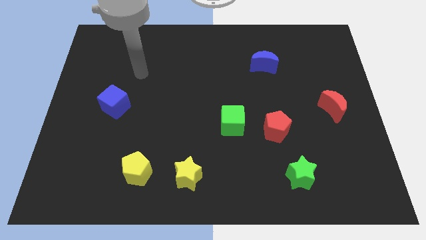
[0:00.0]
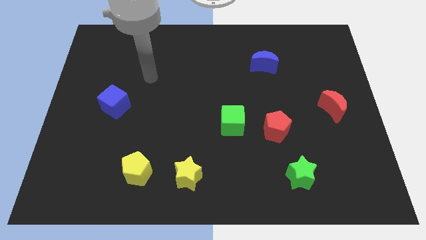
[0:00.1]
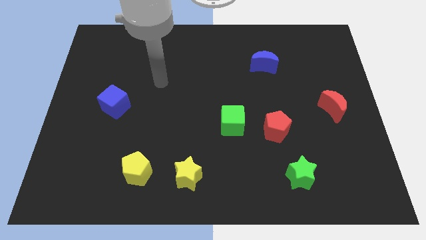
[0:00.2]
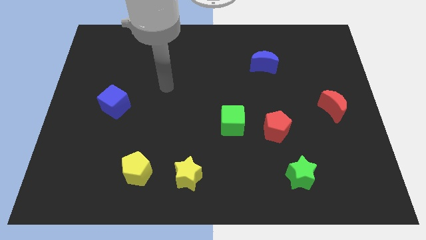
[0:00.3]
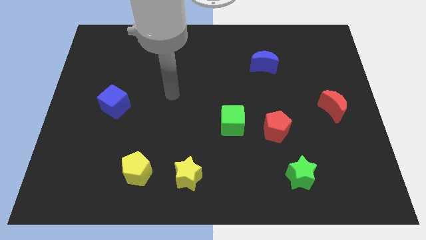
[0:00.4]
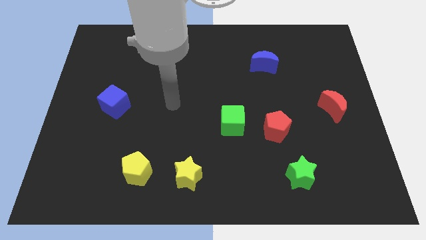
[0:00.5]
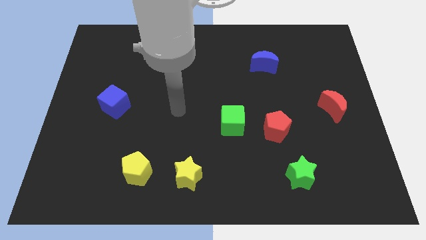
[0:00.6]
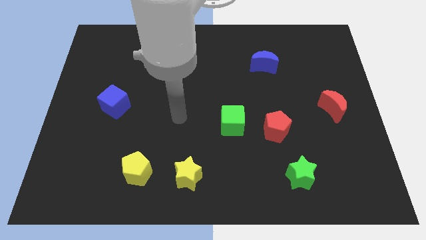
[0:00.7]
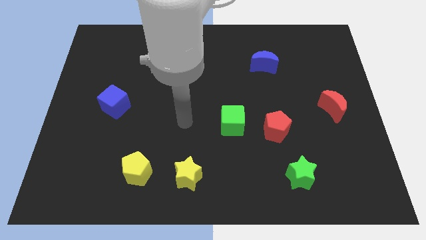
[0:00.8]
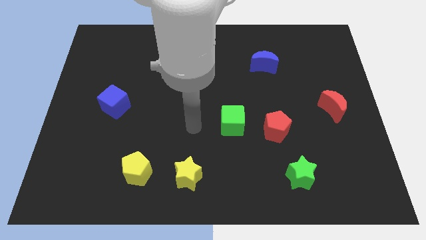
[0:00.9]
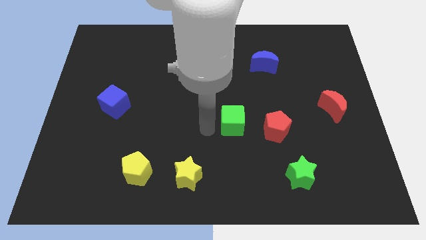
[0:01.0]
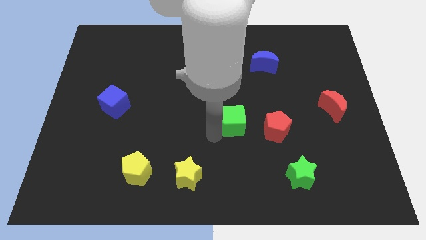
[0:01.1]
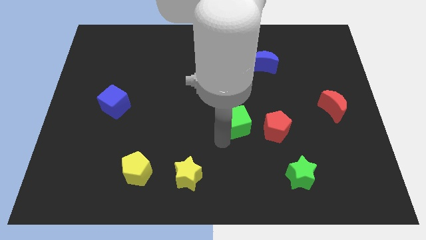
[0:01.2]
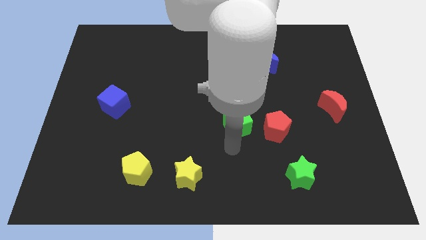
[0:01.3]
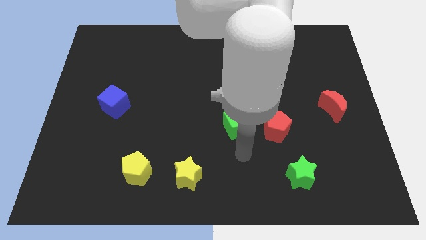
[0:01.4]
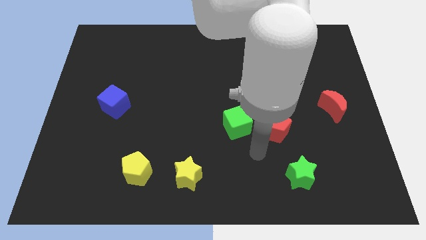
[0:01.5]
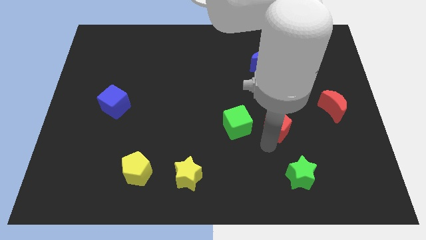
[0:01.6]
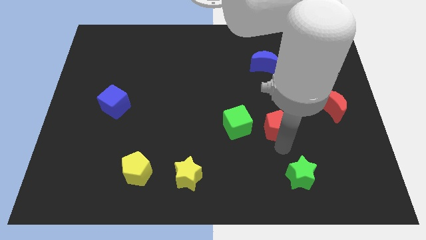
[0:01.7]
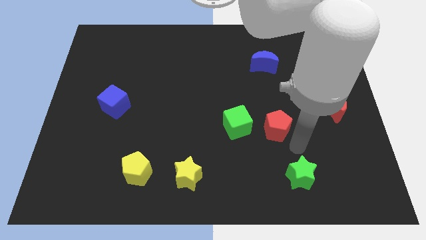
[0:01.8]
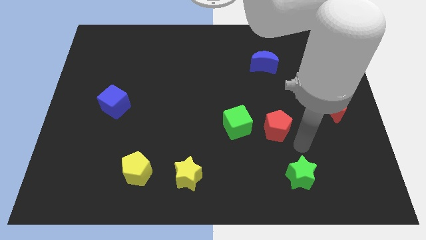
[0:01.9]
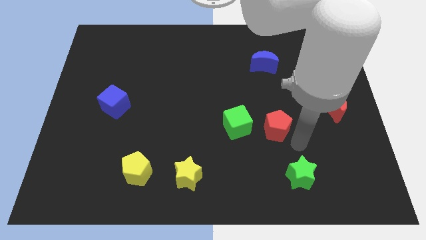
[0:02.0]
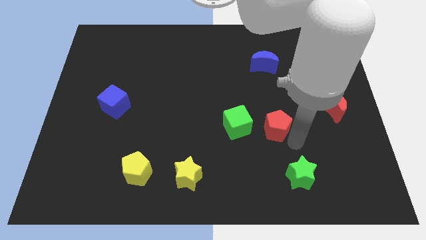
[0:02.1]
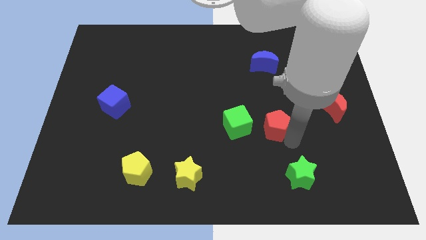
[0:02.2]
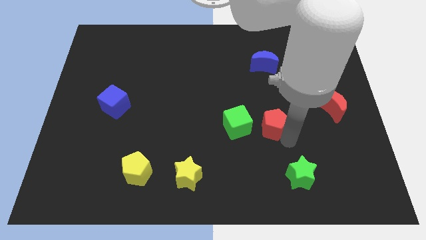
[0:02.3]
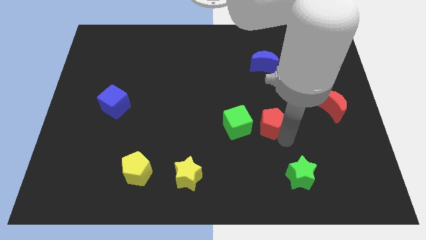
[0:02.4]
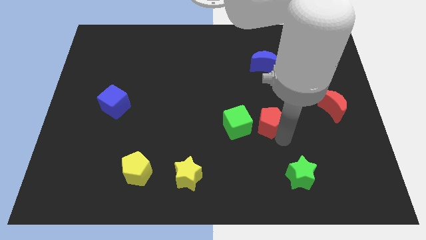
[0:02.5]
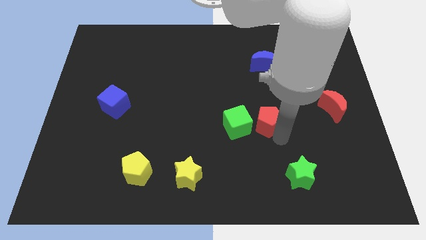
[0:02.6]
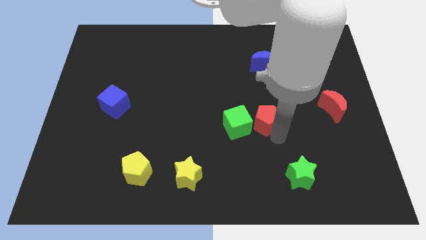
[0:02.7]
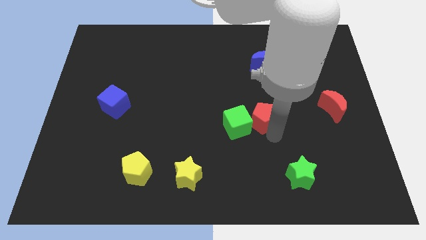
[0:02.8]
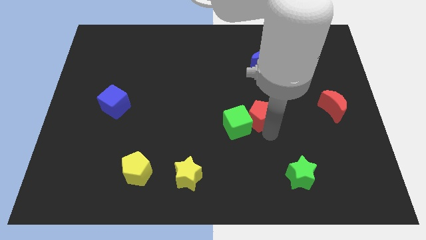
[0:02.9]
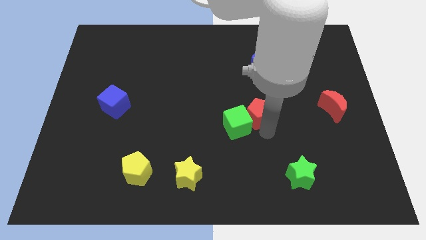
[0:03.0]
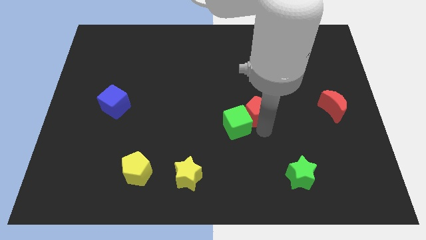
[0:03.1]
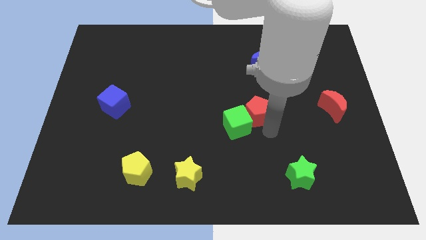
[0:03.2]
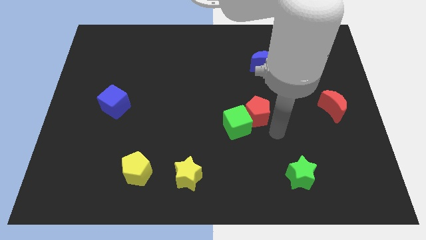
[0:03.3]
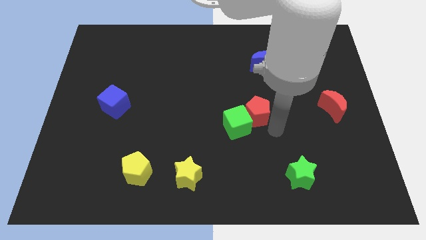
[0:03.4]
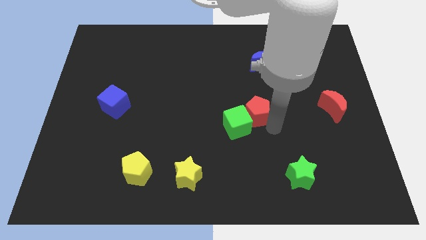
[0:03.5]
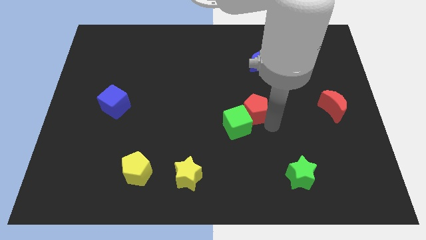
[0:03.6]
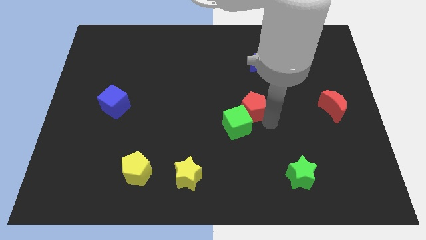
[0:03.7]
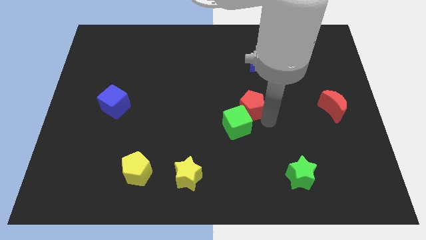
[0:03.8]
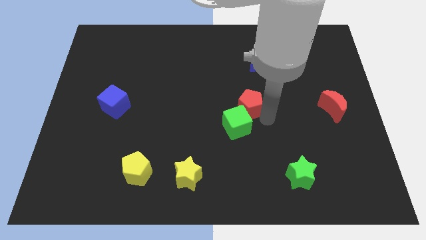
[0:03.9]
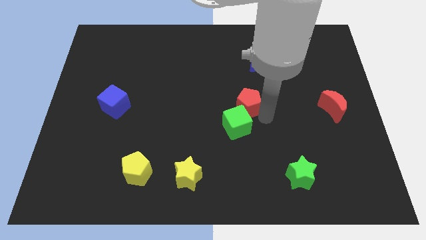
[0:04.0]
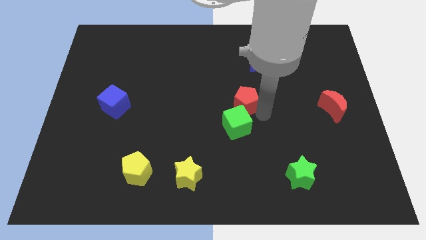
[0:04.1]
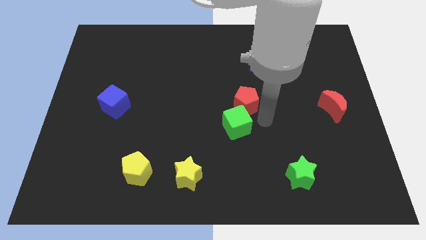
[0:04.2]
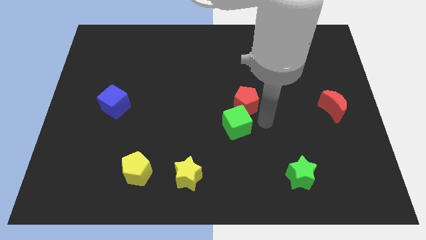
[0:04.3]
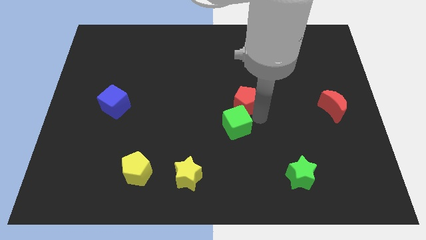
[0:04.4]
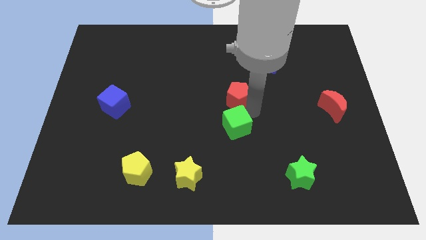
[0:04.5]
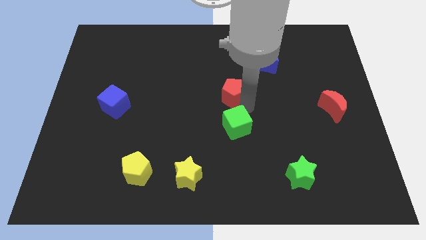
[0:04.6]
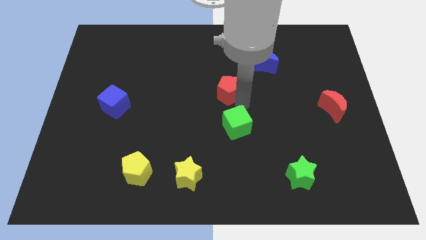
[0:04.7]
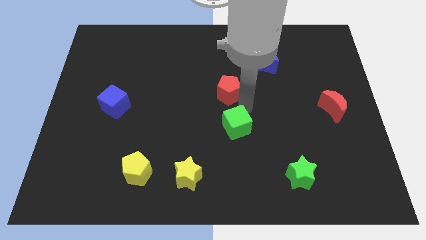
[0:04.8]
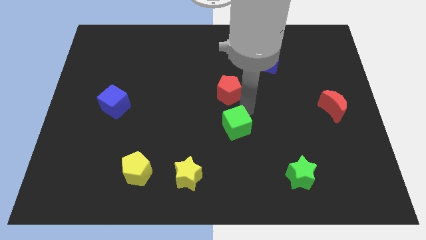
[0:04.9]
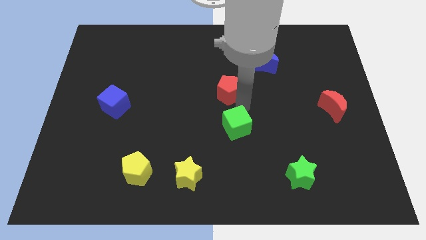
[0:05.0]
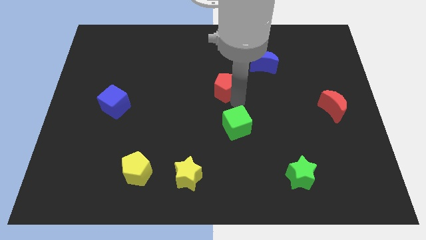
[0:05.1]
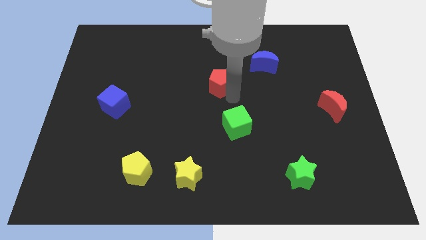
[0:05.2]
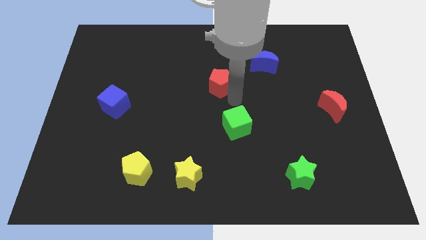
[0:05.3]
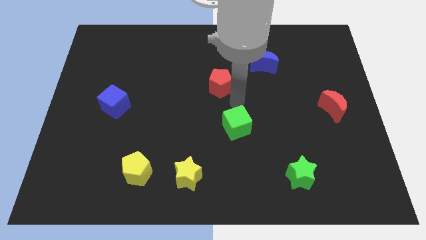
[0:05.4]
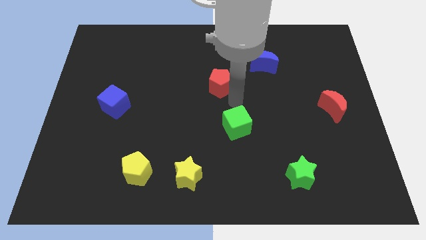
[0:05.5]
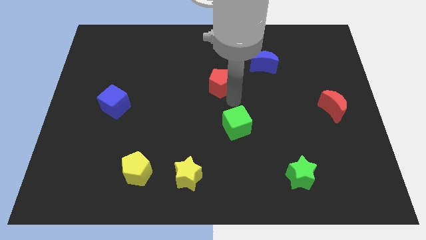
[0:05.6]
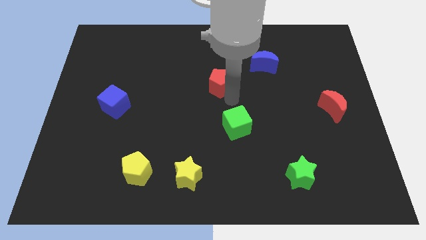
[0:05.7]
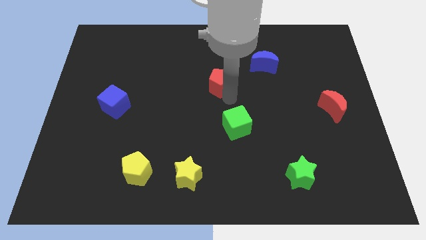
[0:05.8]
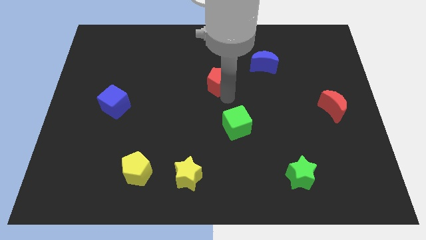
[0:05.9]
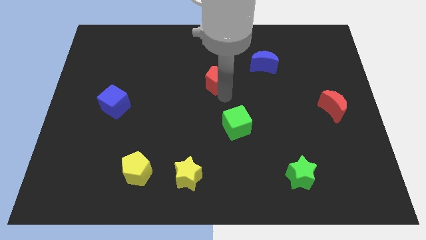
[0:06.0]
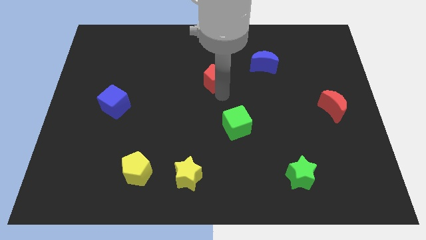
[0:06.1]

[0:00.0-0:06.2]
move the red pentagon upwards and to the left diagonally

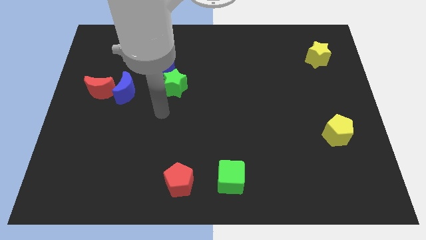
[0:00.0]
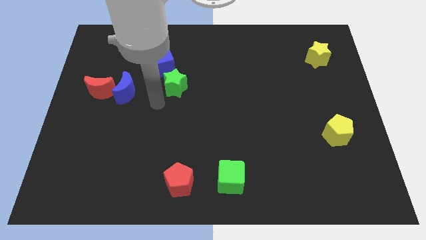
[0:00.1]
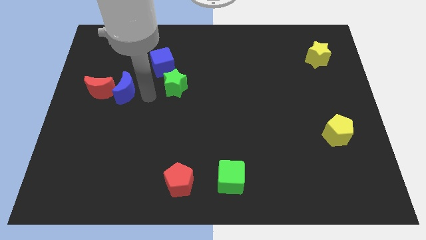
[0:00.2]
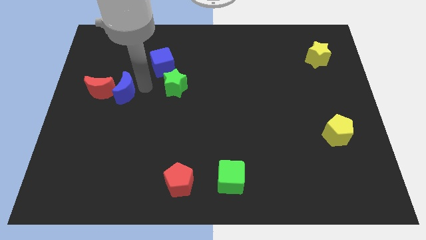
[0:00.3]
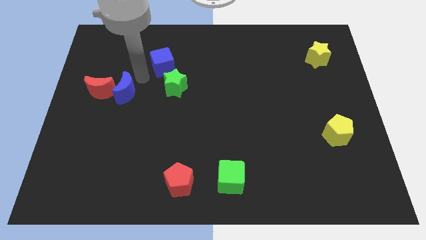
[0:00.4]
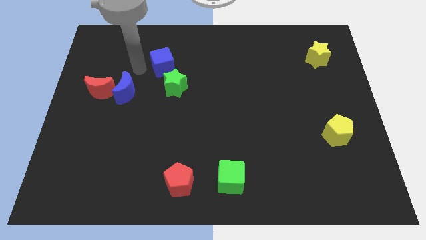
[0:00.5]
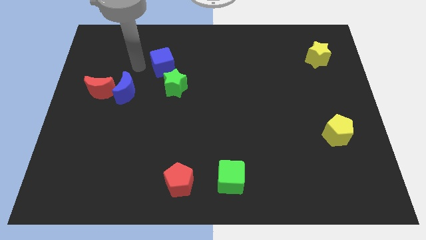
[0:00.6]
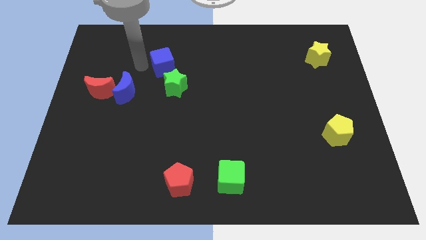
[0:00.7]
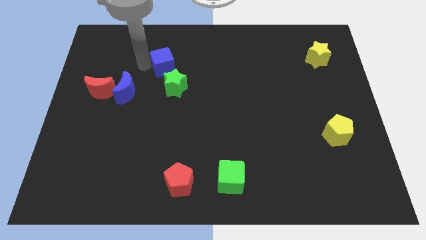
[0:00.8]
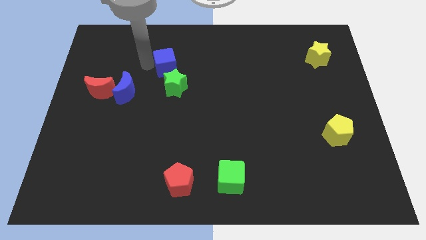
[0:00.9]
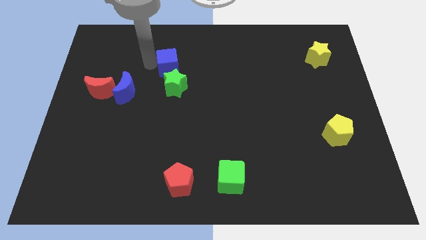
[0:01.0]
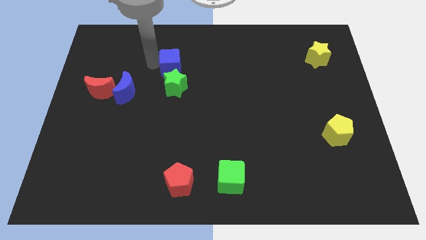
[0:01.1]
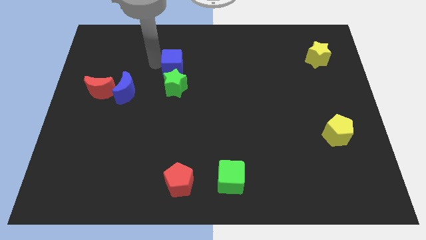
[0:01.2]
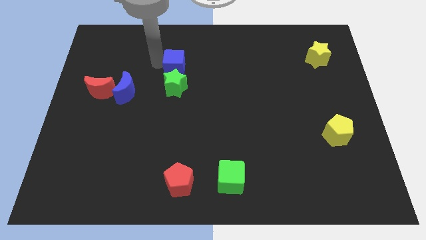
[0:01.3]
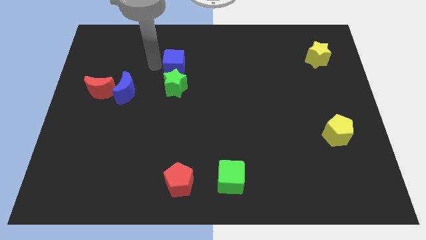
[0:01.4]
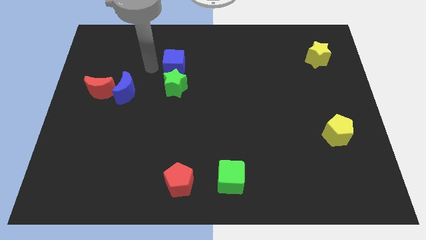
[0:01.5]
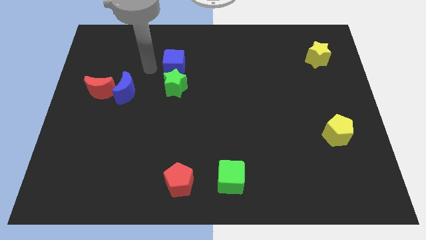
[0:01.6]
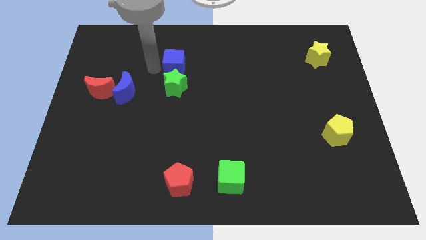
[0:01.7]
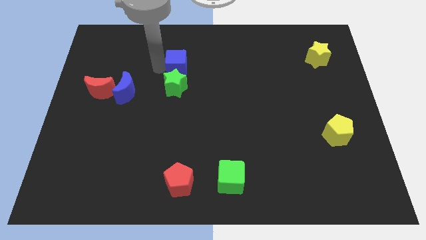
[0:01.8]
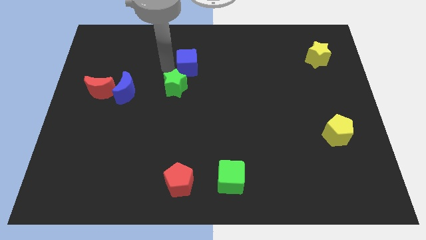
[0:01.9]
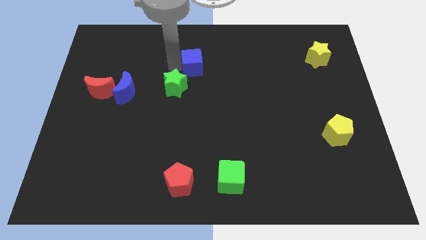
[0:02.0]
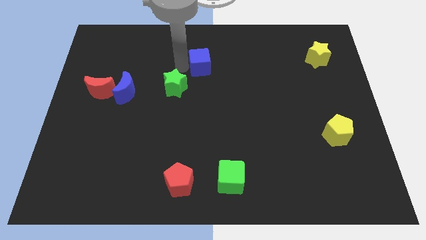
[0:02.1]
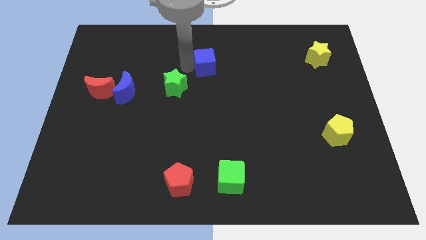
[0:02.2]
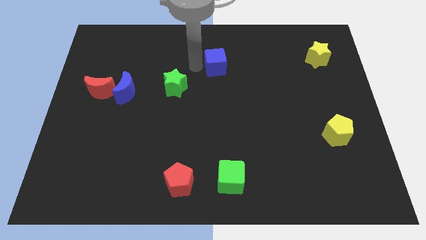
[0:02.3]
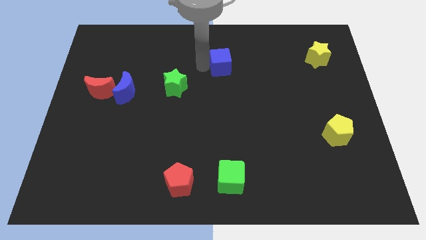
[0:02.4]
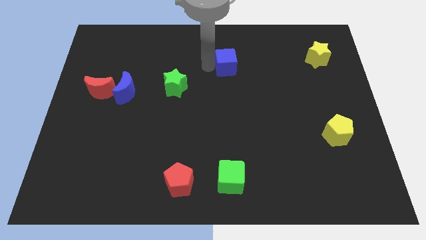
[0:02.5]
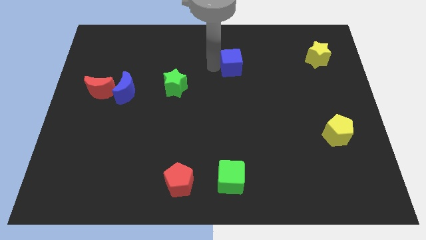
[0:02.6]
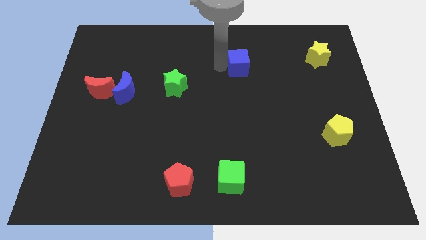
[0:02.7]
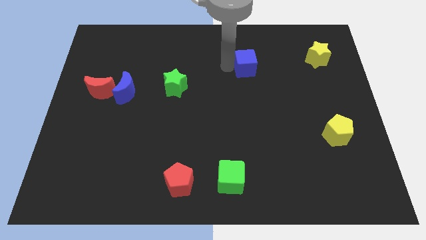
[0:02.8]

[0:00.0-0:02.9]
slide the blue cube to the right
